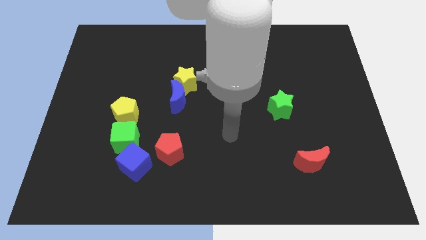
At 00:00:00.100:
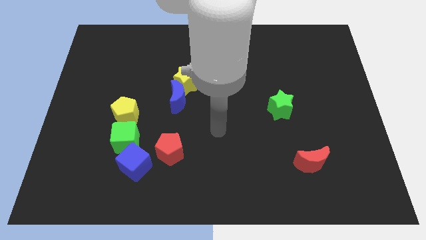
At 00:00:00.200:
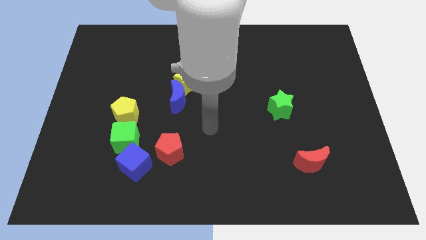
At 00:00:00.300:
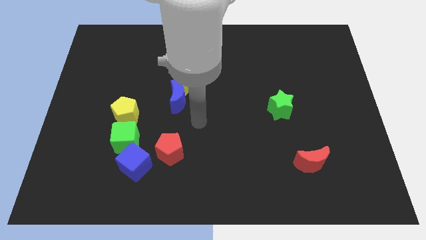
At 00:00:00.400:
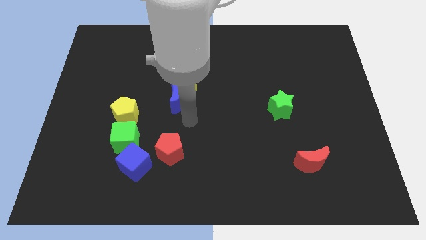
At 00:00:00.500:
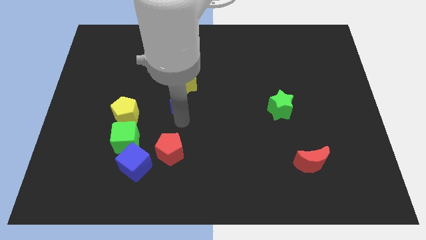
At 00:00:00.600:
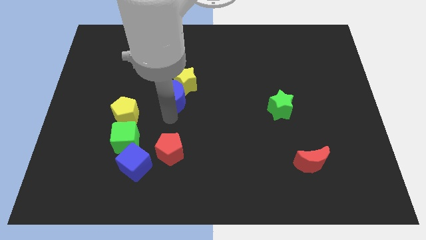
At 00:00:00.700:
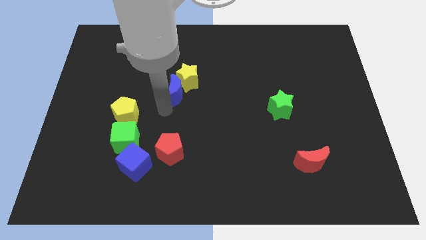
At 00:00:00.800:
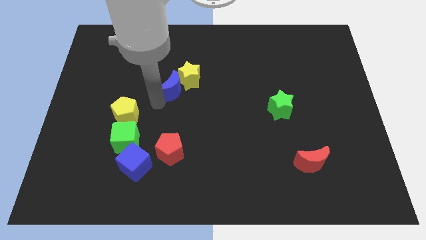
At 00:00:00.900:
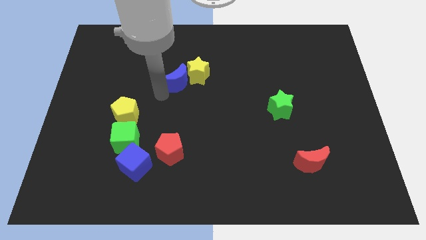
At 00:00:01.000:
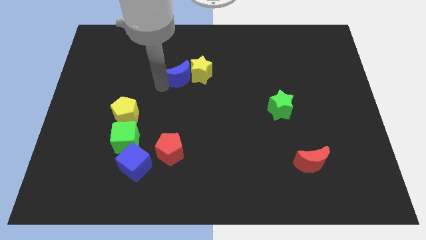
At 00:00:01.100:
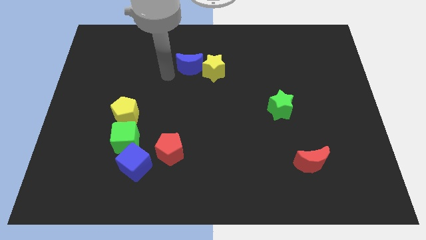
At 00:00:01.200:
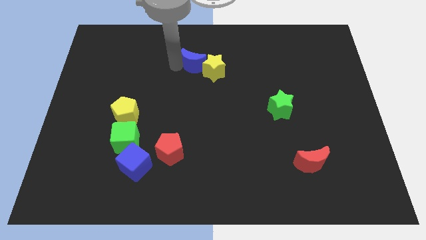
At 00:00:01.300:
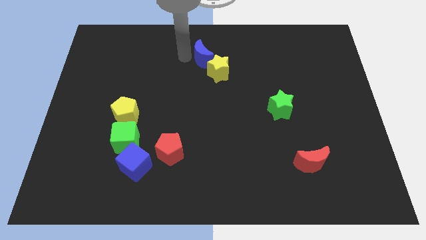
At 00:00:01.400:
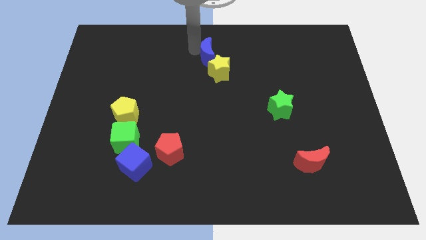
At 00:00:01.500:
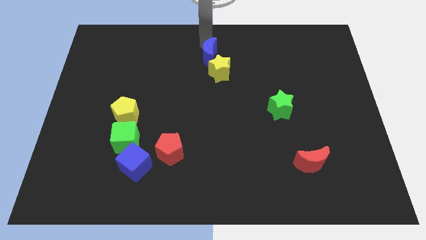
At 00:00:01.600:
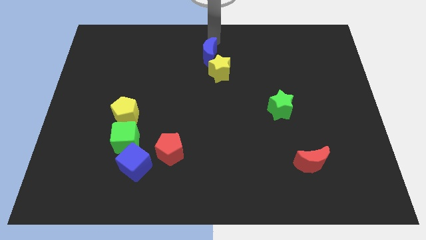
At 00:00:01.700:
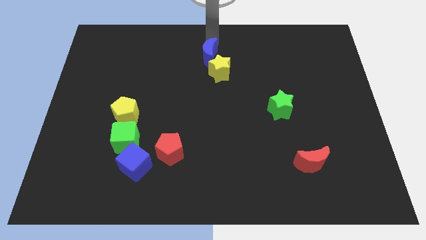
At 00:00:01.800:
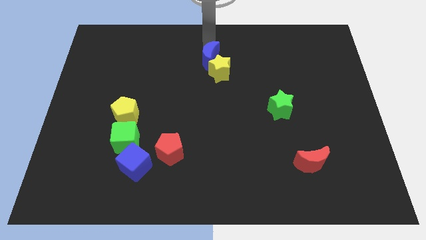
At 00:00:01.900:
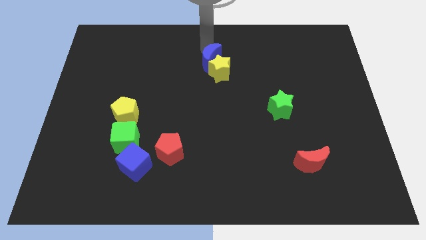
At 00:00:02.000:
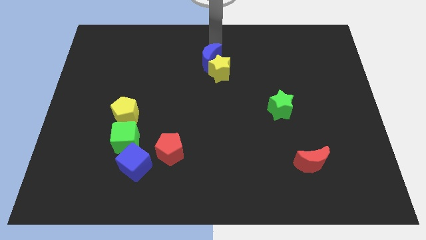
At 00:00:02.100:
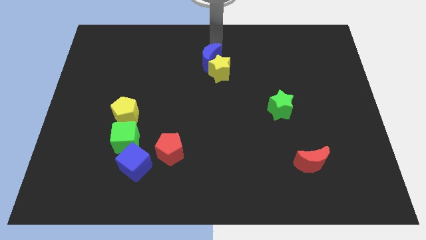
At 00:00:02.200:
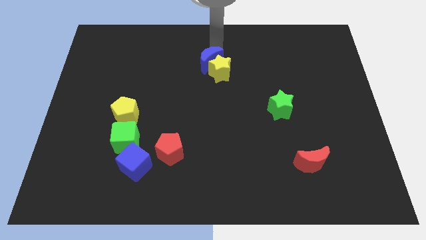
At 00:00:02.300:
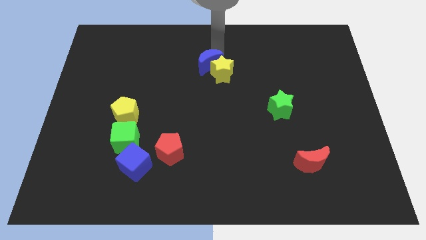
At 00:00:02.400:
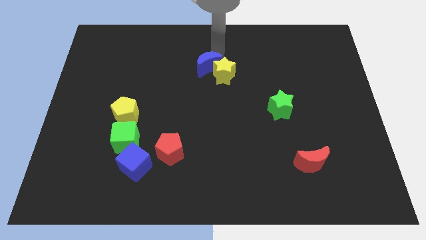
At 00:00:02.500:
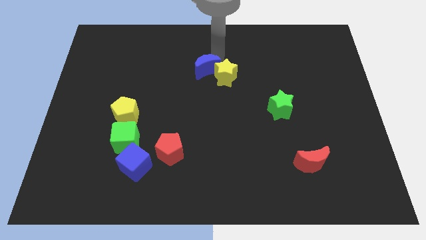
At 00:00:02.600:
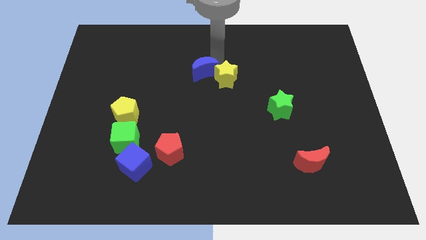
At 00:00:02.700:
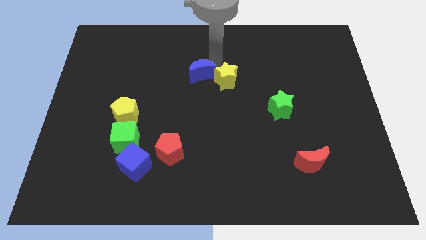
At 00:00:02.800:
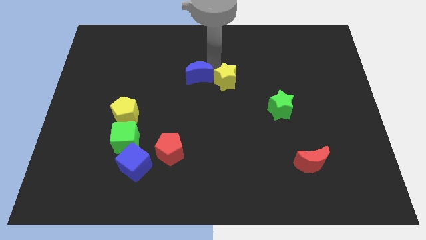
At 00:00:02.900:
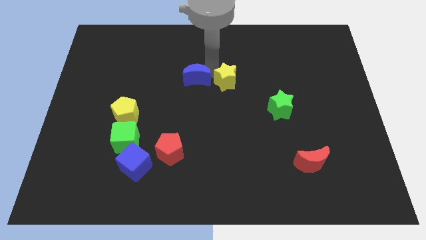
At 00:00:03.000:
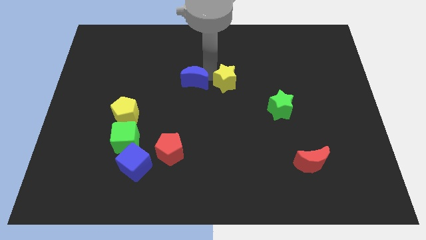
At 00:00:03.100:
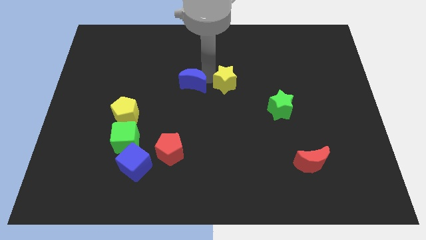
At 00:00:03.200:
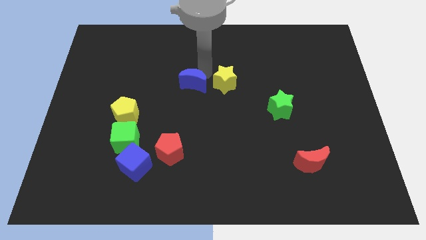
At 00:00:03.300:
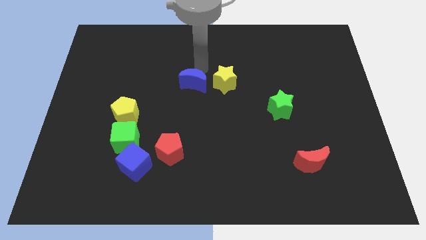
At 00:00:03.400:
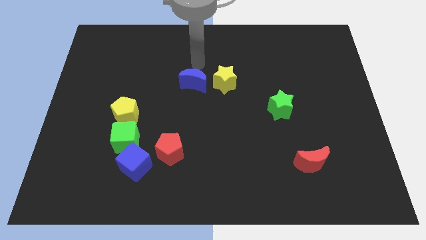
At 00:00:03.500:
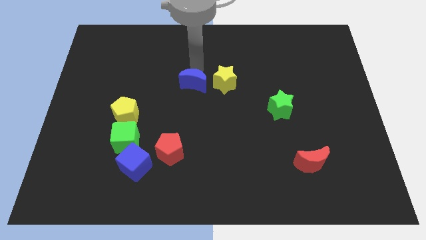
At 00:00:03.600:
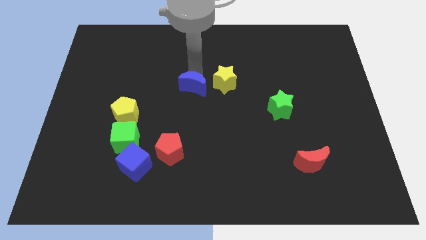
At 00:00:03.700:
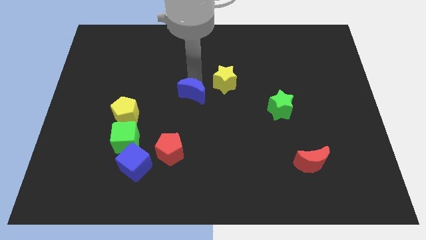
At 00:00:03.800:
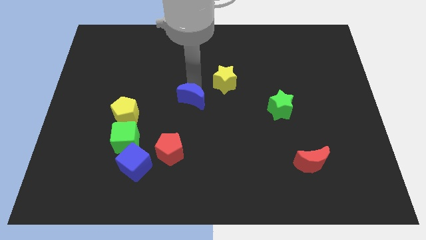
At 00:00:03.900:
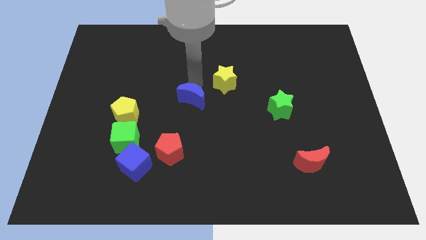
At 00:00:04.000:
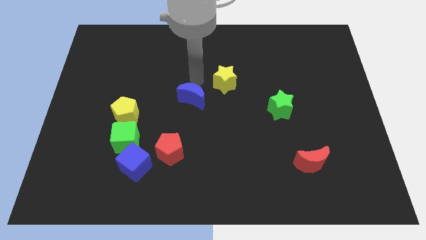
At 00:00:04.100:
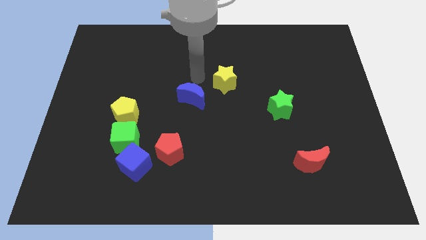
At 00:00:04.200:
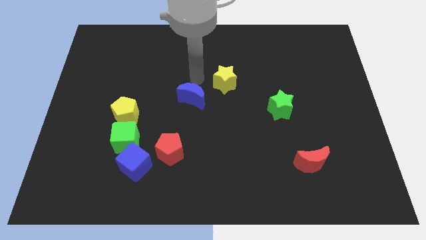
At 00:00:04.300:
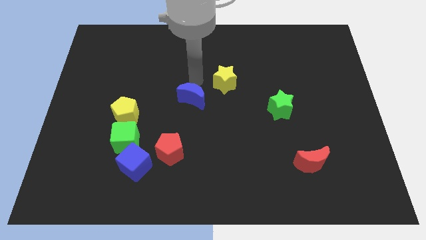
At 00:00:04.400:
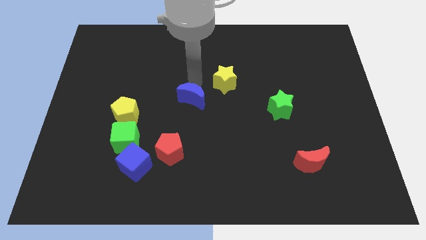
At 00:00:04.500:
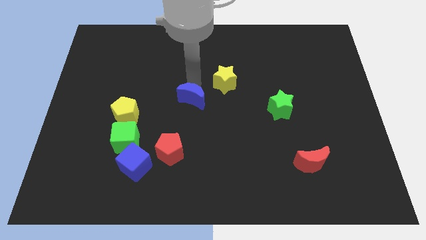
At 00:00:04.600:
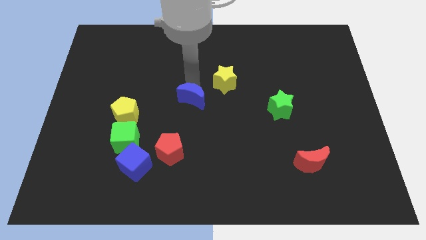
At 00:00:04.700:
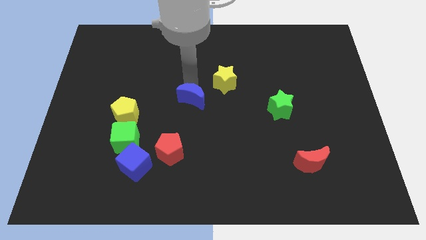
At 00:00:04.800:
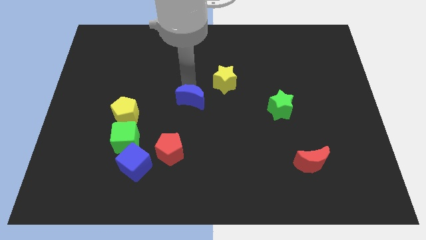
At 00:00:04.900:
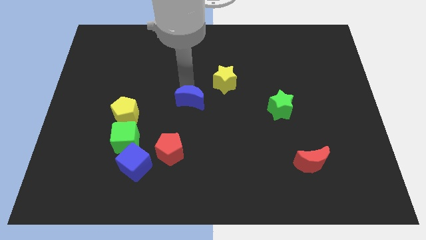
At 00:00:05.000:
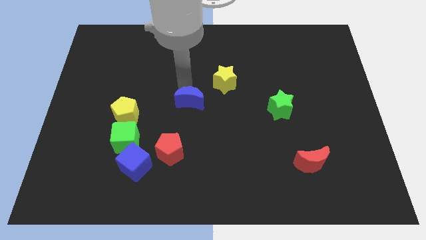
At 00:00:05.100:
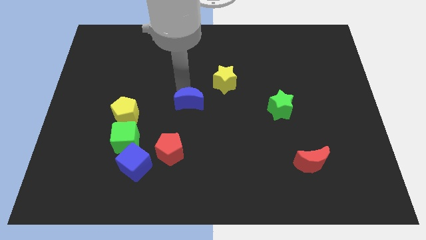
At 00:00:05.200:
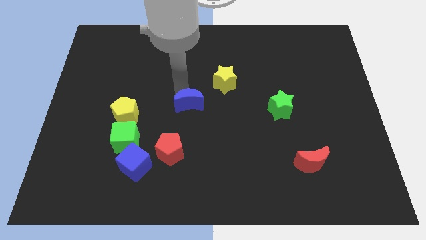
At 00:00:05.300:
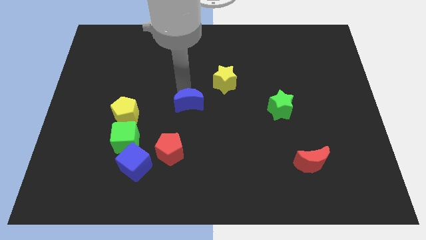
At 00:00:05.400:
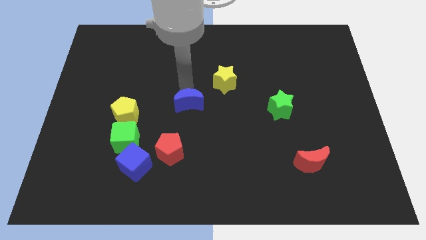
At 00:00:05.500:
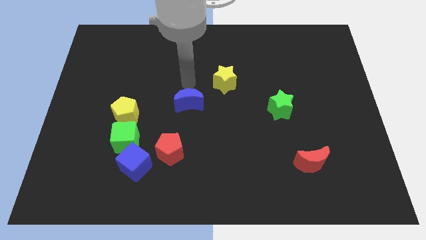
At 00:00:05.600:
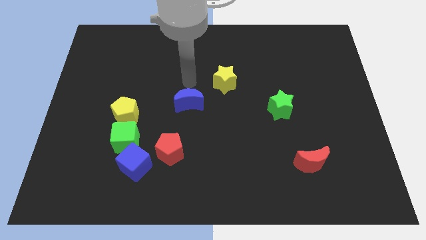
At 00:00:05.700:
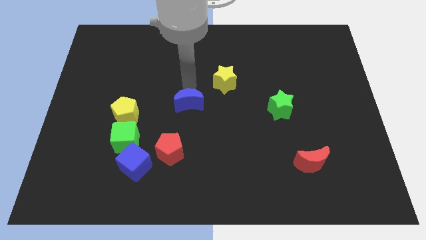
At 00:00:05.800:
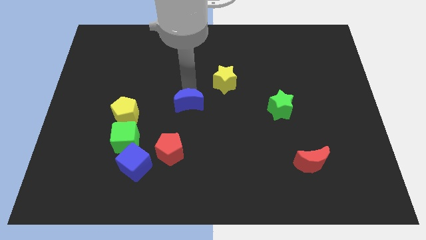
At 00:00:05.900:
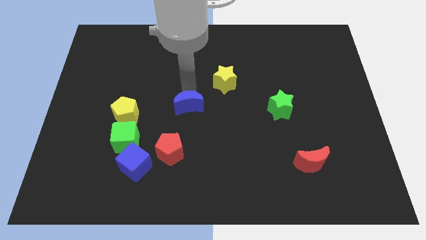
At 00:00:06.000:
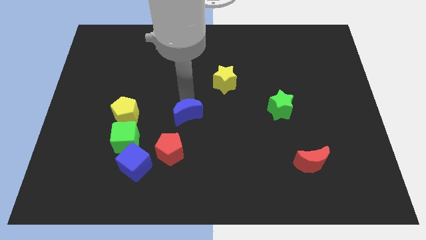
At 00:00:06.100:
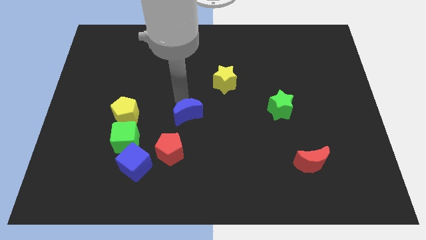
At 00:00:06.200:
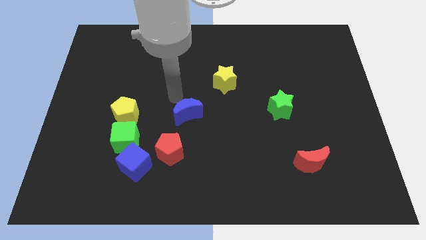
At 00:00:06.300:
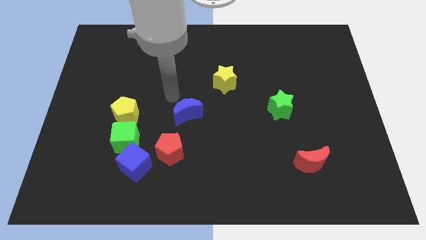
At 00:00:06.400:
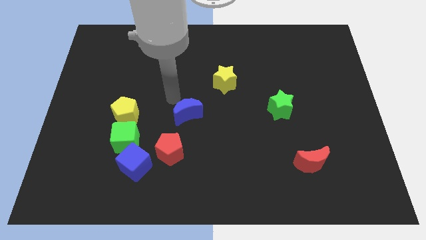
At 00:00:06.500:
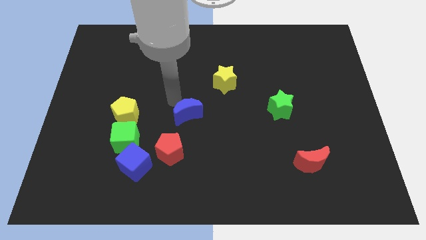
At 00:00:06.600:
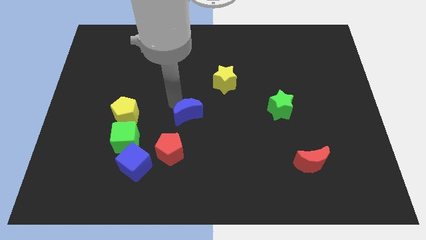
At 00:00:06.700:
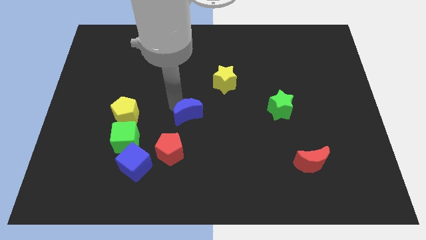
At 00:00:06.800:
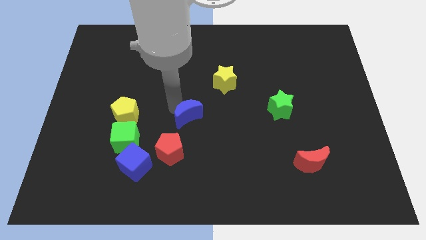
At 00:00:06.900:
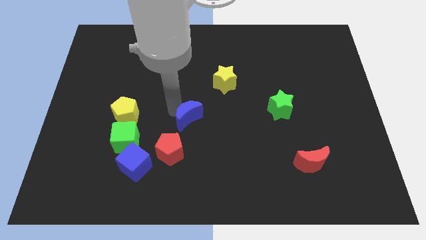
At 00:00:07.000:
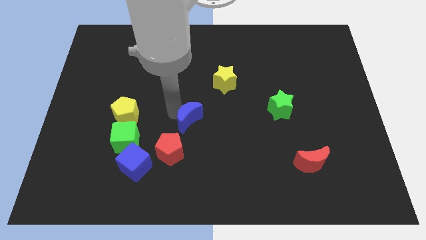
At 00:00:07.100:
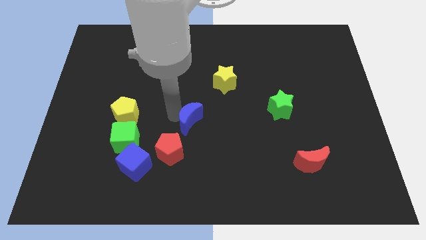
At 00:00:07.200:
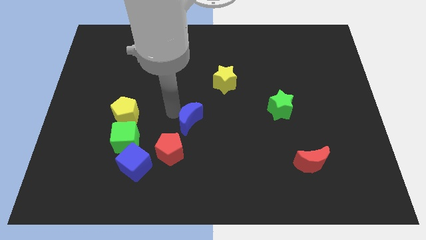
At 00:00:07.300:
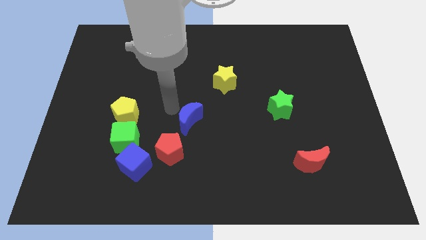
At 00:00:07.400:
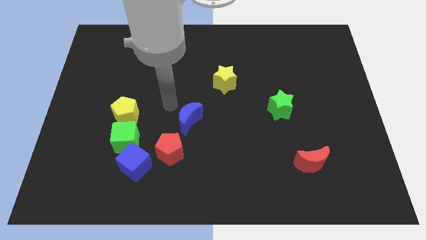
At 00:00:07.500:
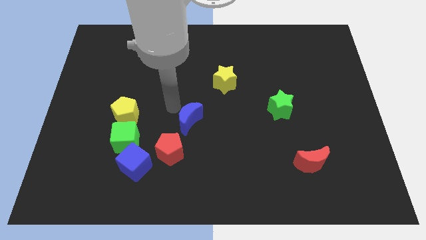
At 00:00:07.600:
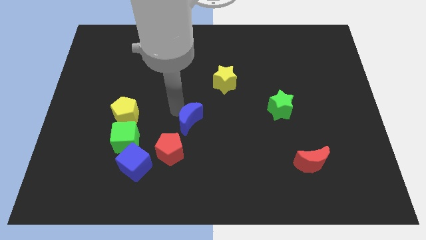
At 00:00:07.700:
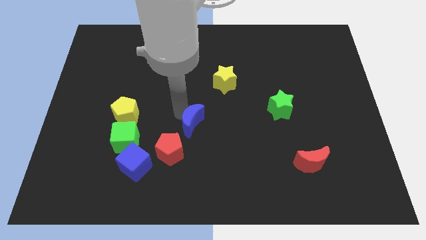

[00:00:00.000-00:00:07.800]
slightly push the blue moon down and right
